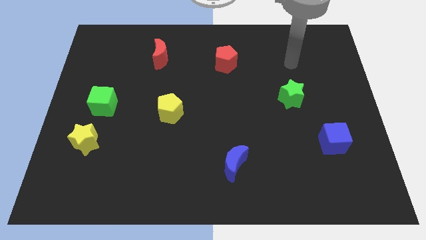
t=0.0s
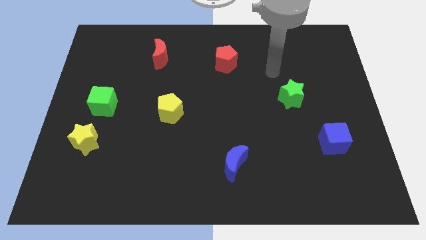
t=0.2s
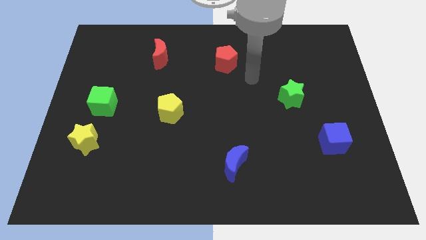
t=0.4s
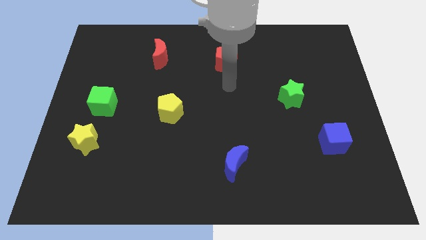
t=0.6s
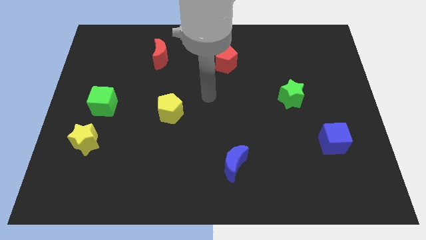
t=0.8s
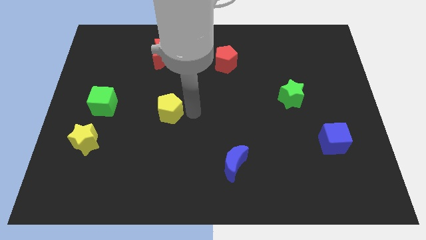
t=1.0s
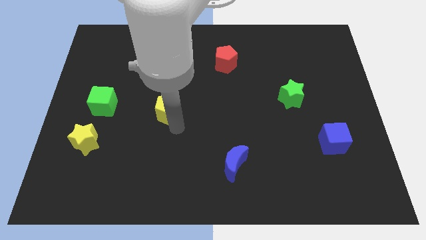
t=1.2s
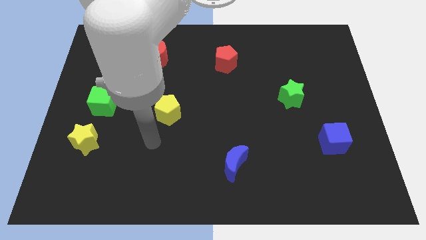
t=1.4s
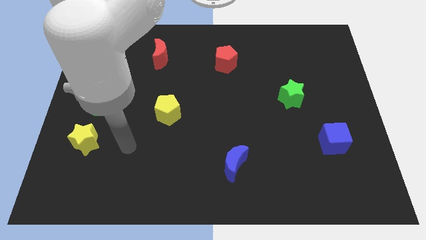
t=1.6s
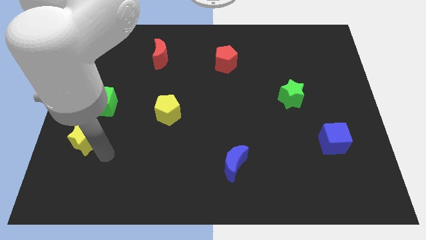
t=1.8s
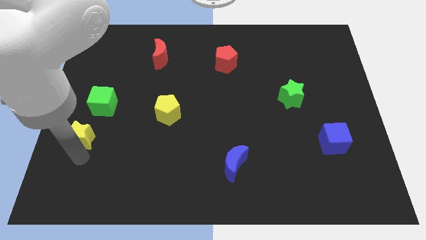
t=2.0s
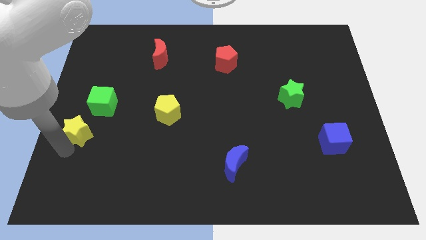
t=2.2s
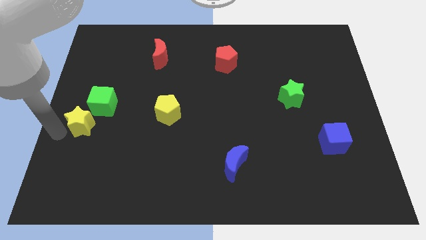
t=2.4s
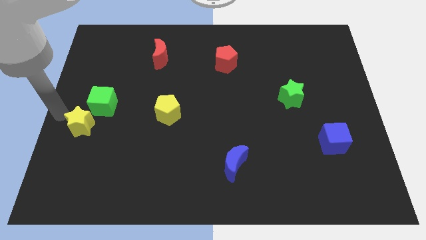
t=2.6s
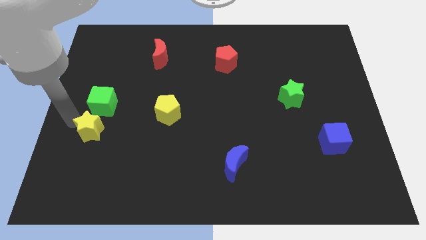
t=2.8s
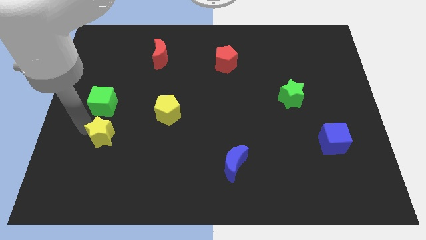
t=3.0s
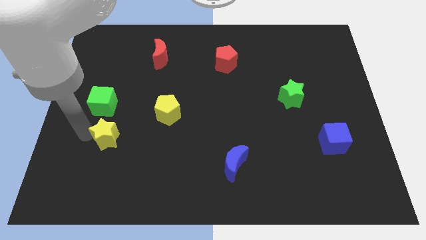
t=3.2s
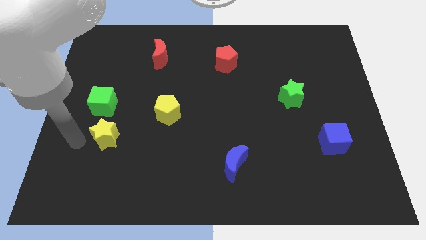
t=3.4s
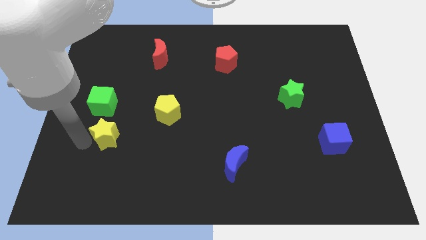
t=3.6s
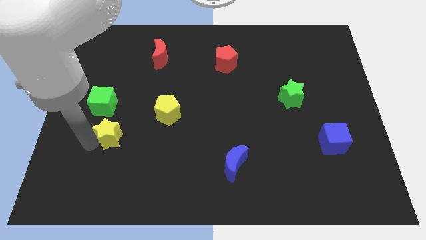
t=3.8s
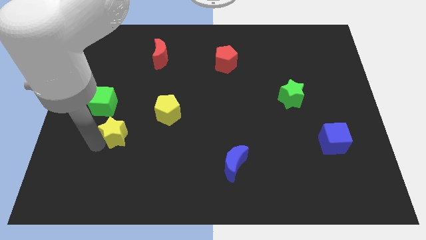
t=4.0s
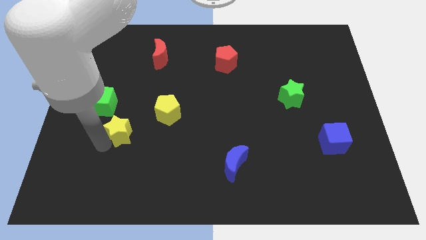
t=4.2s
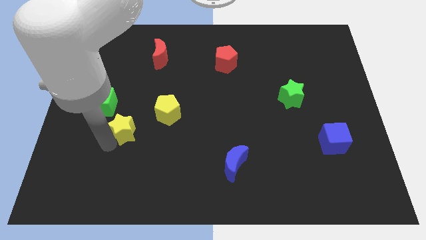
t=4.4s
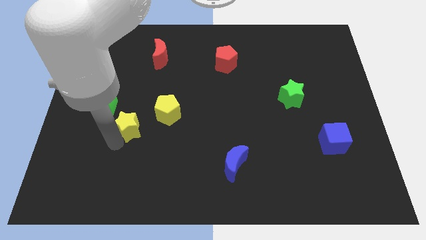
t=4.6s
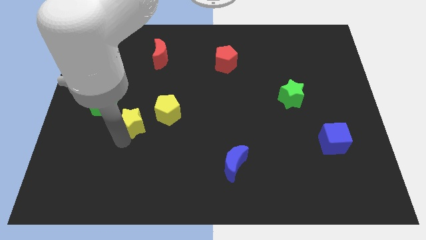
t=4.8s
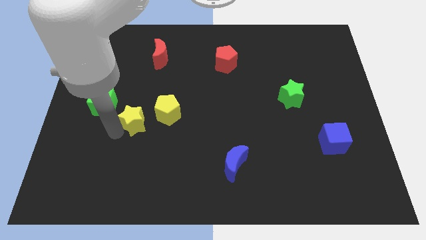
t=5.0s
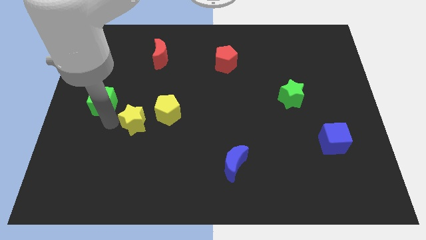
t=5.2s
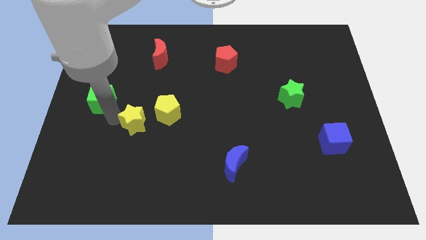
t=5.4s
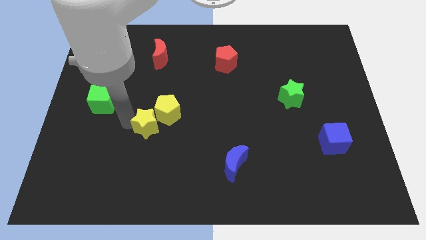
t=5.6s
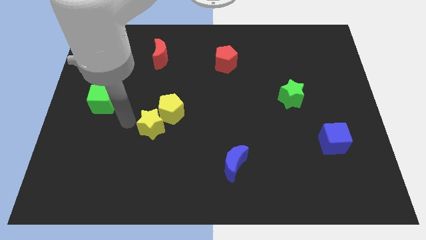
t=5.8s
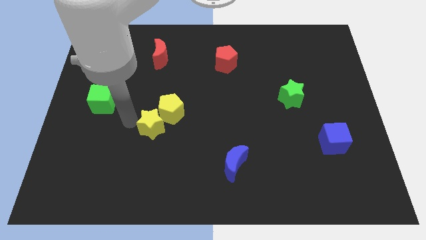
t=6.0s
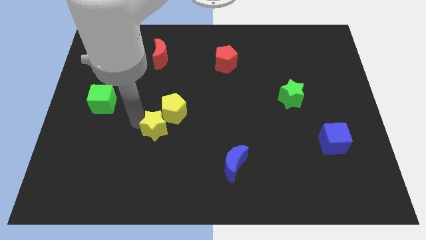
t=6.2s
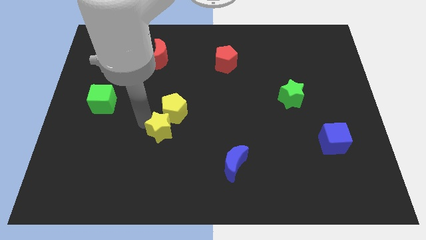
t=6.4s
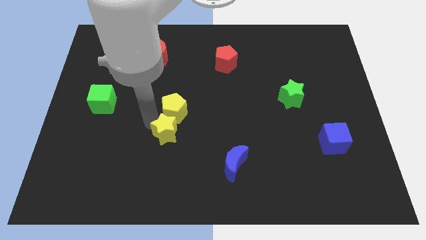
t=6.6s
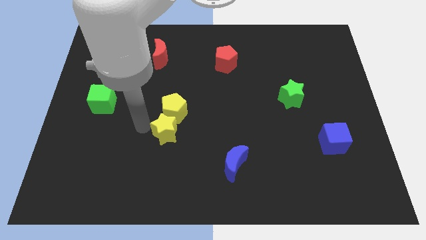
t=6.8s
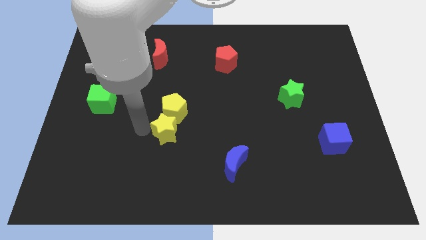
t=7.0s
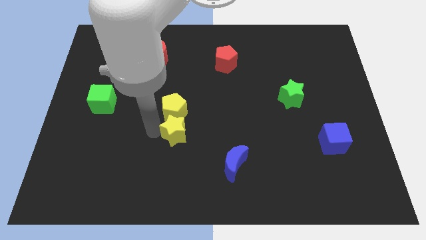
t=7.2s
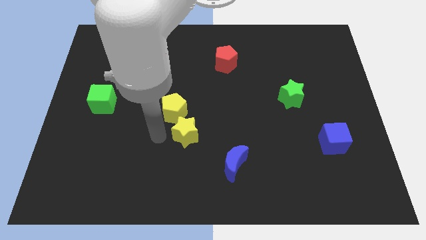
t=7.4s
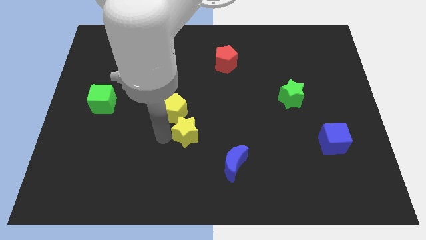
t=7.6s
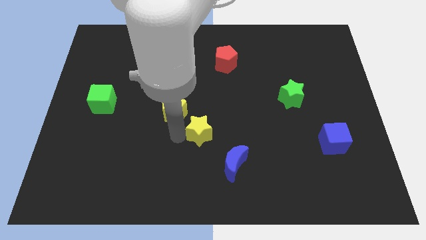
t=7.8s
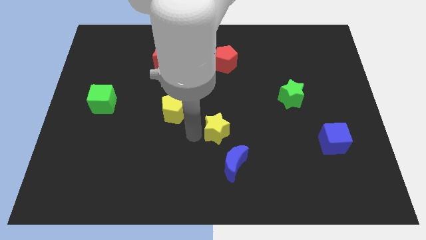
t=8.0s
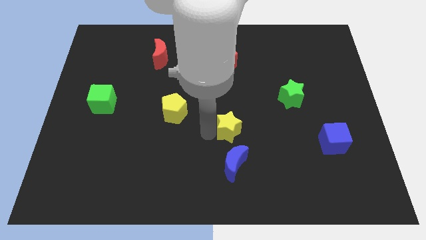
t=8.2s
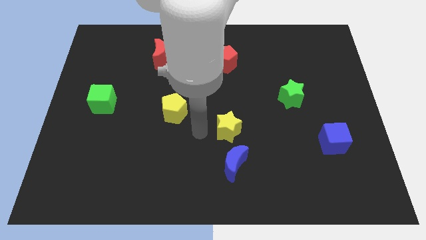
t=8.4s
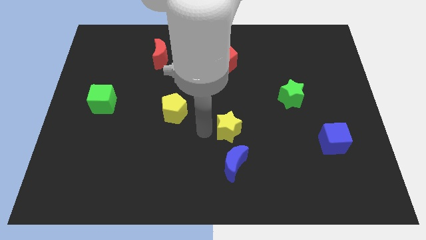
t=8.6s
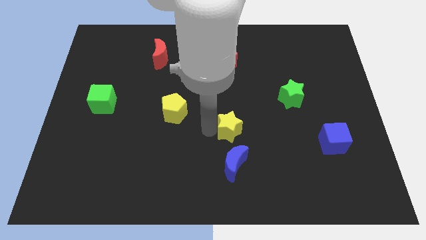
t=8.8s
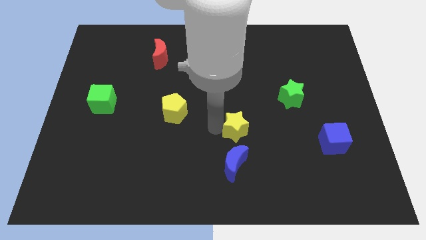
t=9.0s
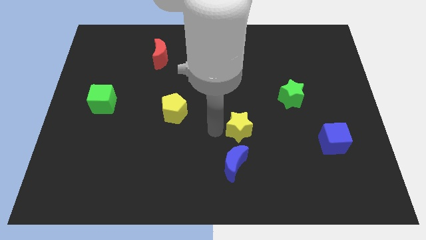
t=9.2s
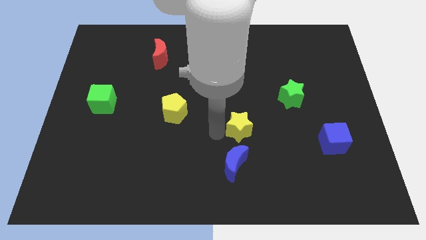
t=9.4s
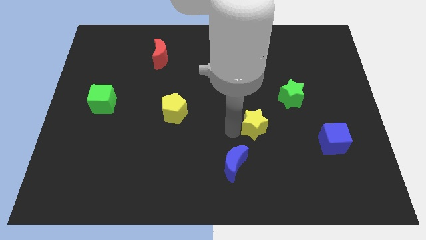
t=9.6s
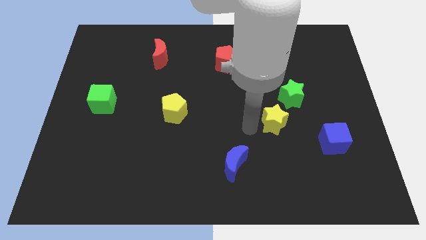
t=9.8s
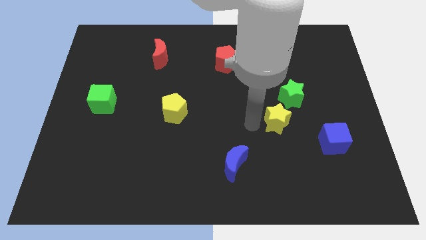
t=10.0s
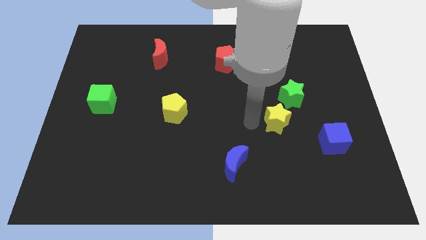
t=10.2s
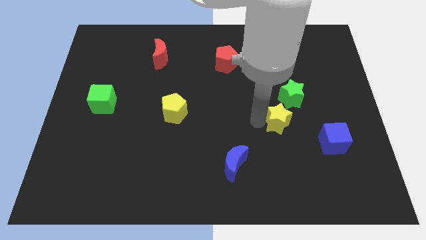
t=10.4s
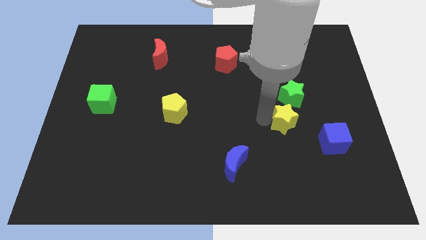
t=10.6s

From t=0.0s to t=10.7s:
move the yellow star to the top left of the blue cube

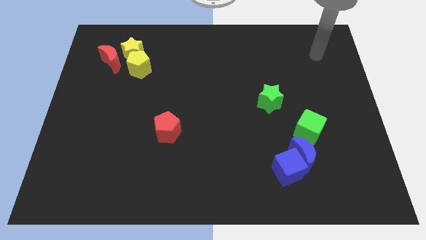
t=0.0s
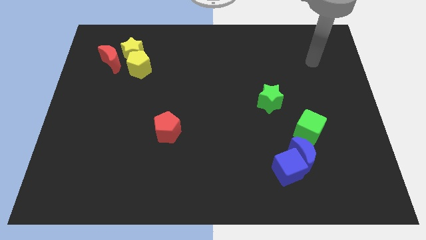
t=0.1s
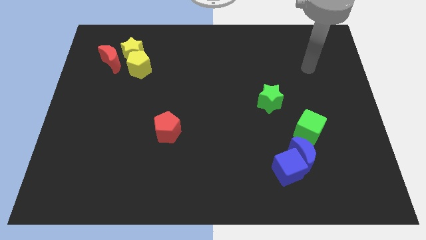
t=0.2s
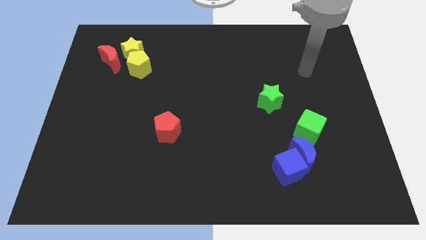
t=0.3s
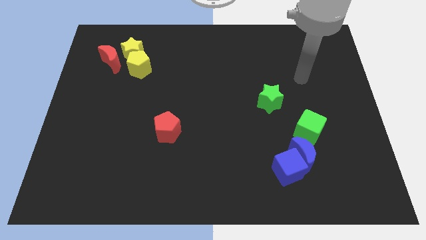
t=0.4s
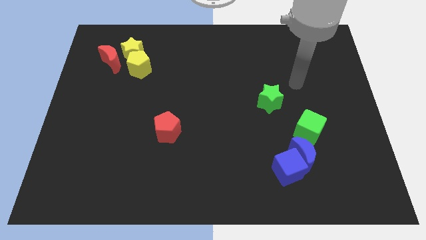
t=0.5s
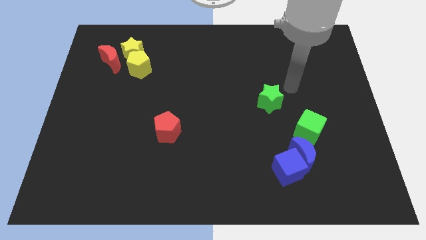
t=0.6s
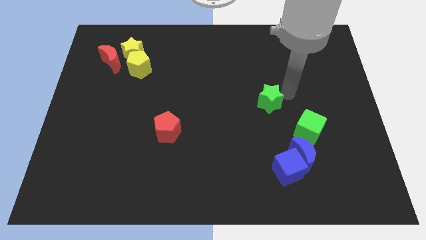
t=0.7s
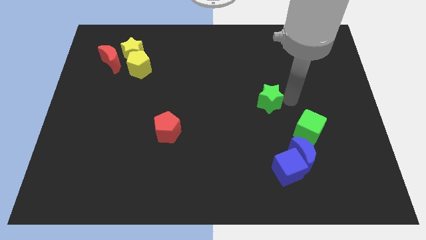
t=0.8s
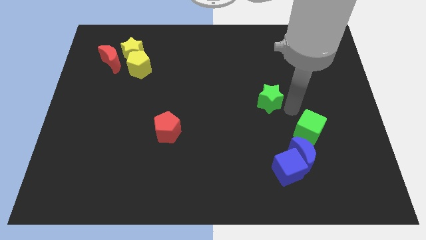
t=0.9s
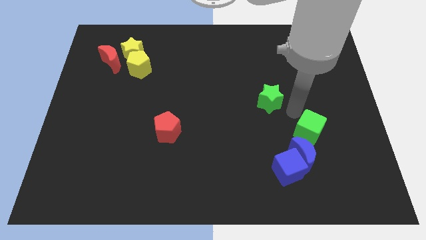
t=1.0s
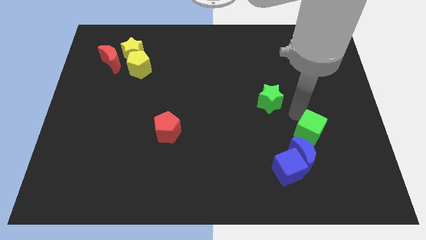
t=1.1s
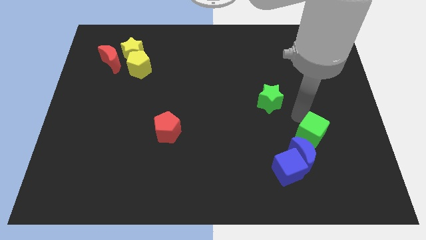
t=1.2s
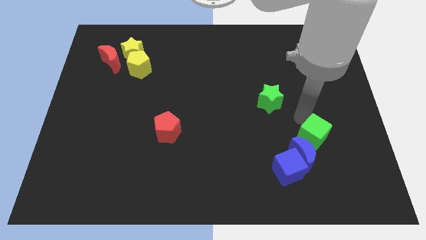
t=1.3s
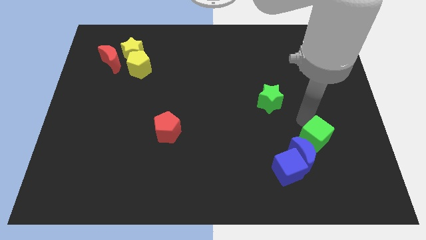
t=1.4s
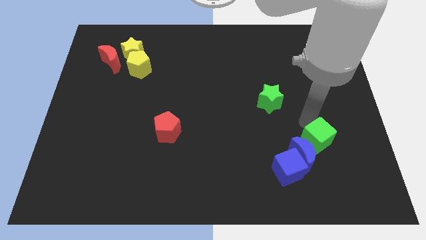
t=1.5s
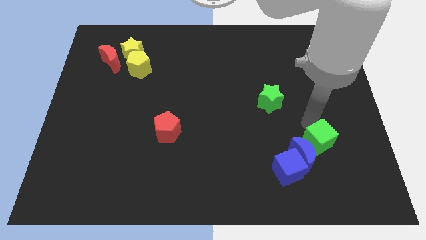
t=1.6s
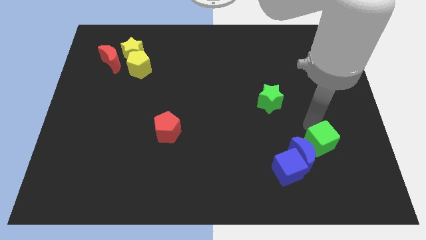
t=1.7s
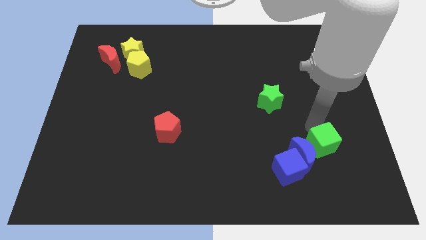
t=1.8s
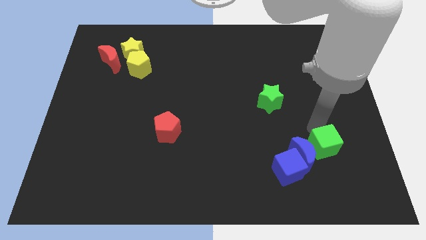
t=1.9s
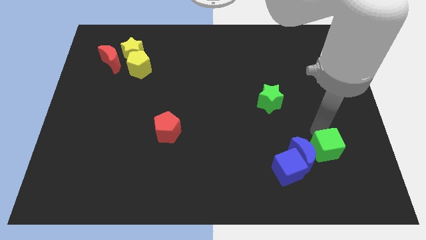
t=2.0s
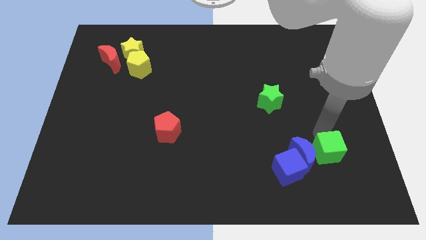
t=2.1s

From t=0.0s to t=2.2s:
put the green cube to the bottom right side of the blue moon
